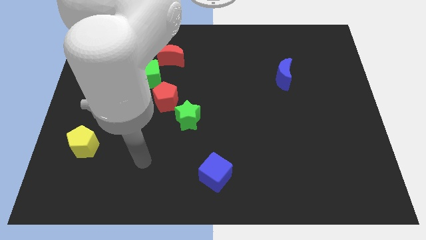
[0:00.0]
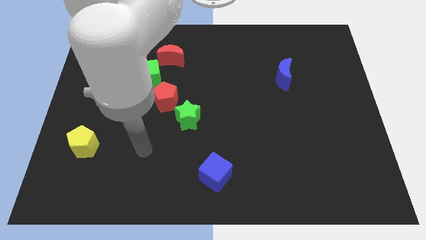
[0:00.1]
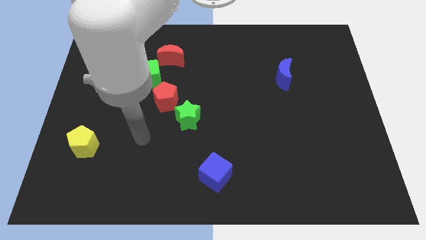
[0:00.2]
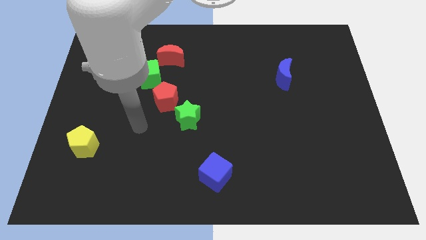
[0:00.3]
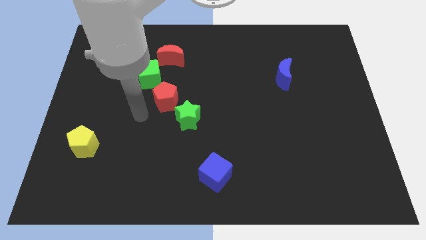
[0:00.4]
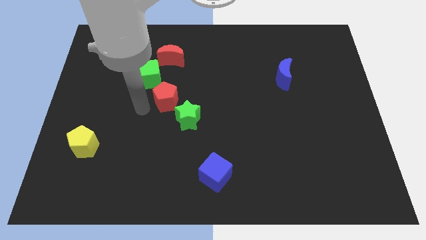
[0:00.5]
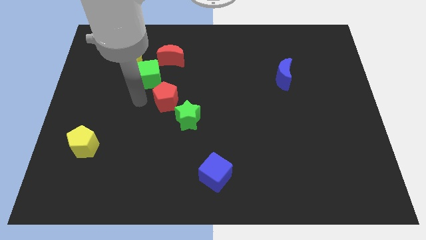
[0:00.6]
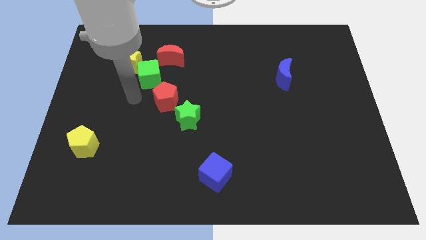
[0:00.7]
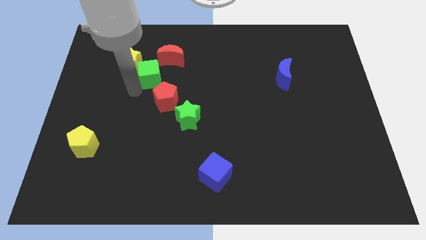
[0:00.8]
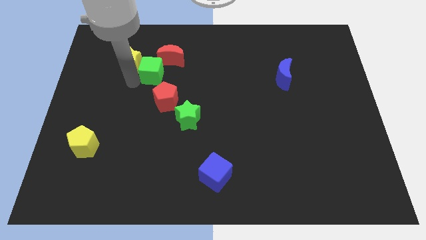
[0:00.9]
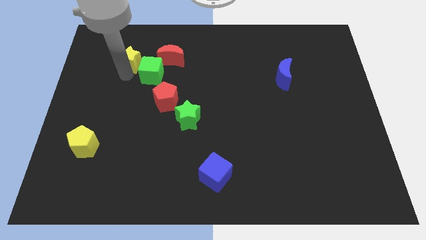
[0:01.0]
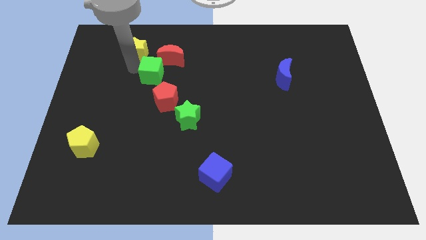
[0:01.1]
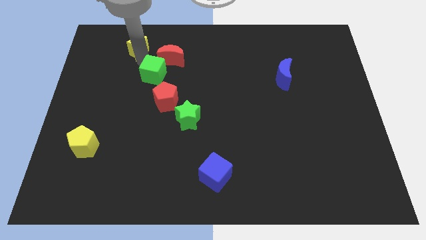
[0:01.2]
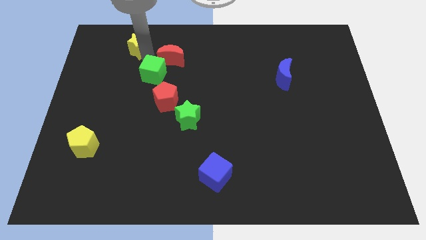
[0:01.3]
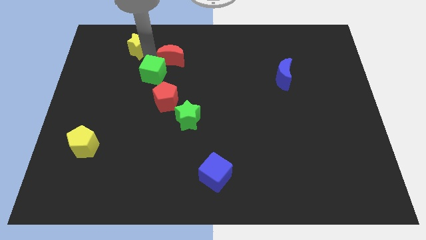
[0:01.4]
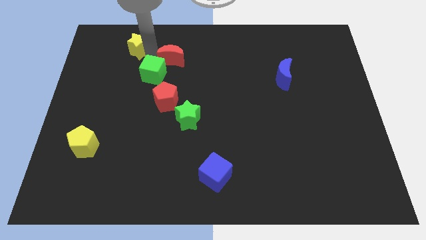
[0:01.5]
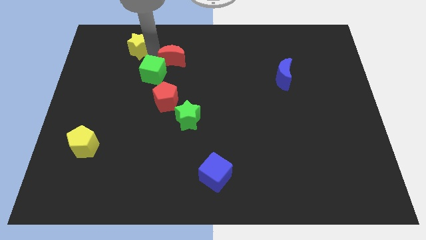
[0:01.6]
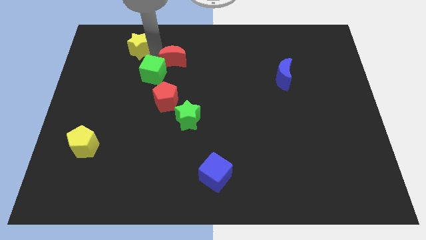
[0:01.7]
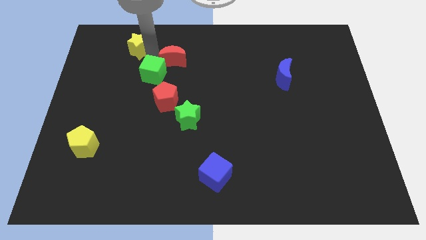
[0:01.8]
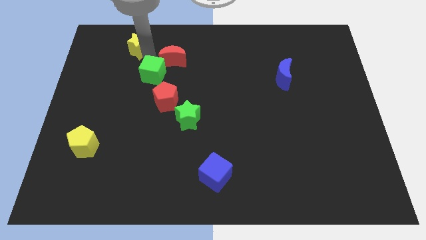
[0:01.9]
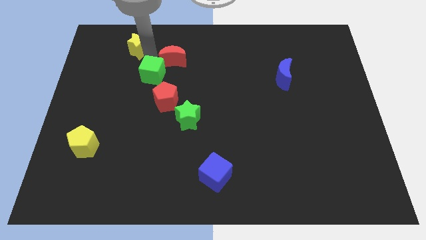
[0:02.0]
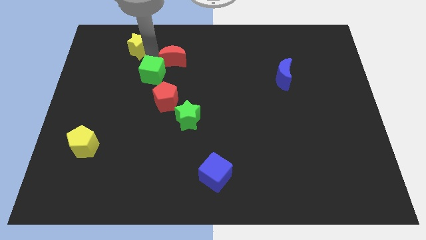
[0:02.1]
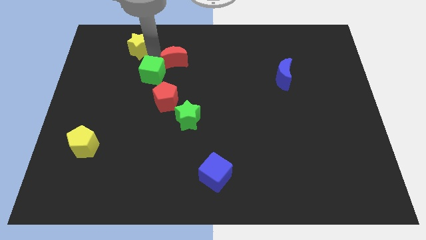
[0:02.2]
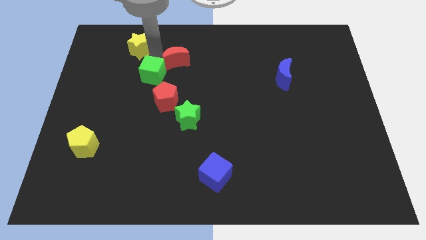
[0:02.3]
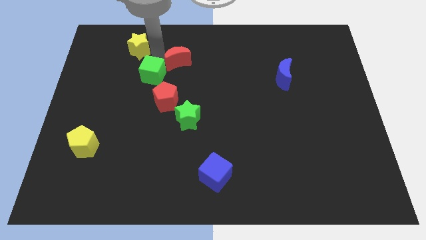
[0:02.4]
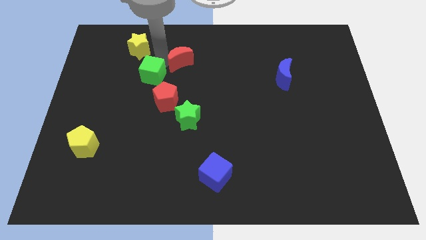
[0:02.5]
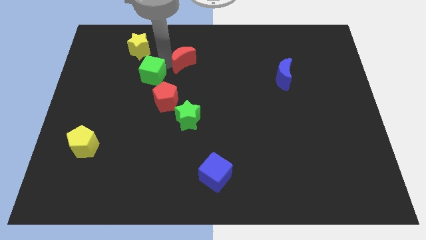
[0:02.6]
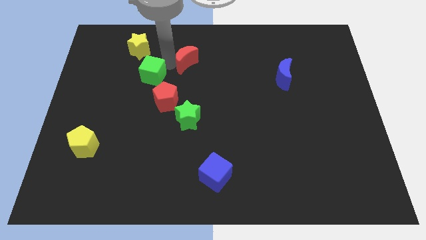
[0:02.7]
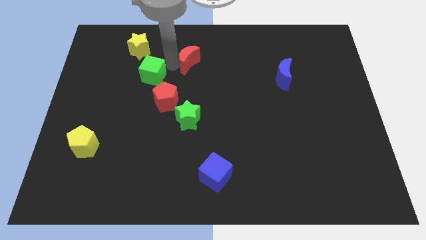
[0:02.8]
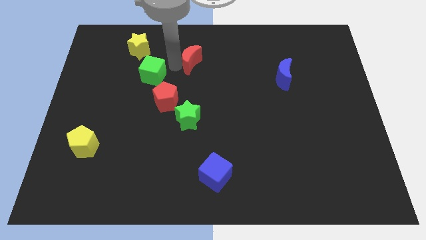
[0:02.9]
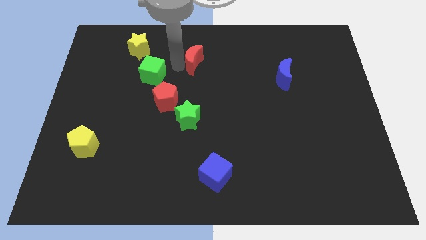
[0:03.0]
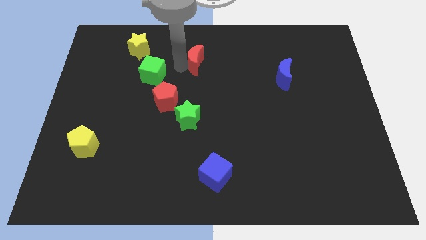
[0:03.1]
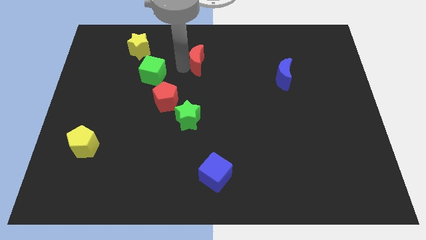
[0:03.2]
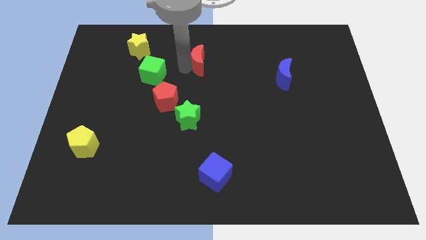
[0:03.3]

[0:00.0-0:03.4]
push the red moon a little bit to the right

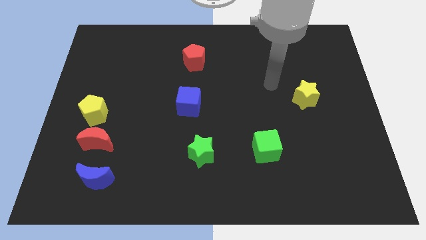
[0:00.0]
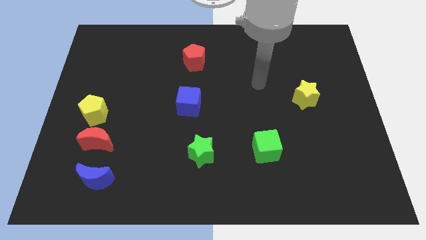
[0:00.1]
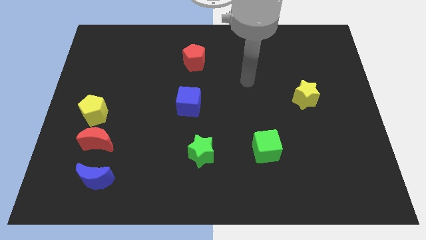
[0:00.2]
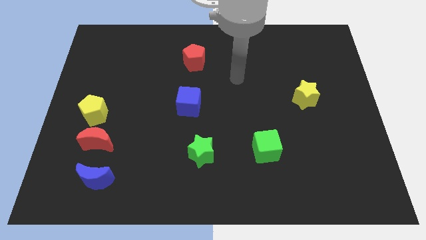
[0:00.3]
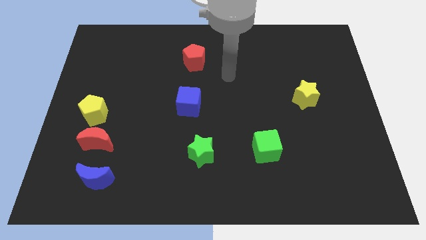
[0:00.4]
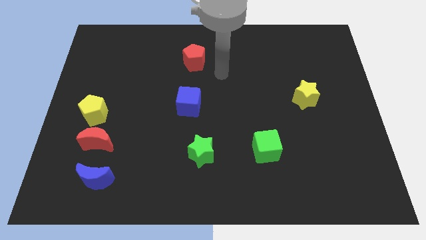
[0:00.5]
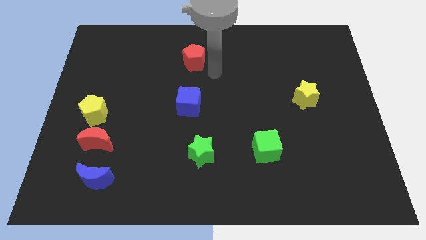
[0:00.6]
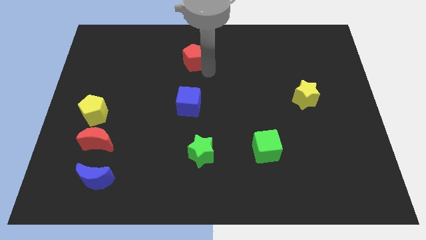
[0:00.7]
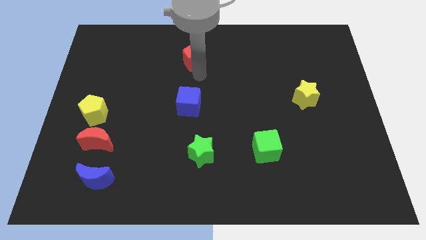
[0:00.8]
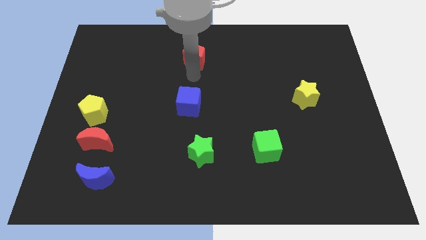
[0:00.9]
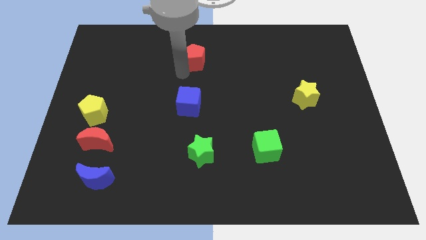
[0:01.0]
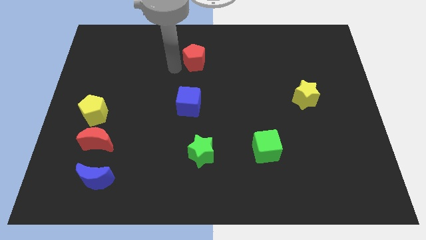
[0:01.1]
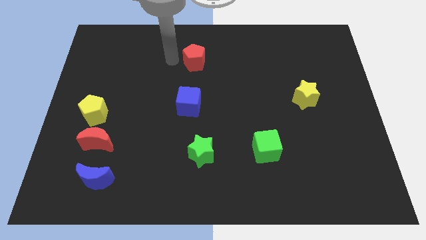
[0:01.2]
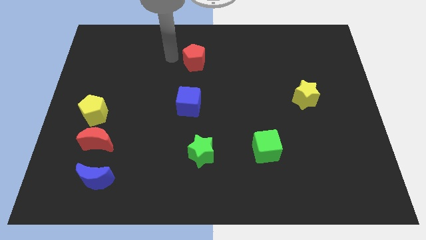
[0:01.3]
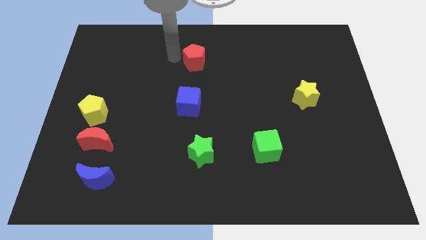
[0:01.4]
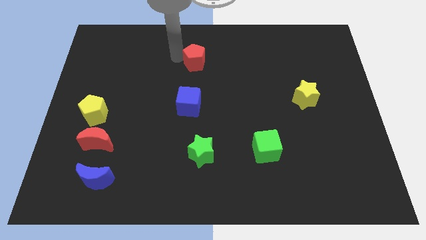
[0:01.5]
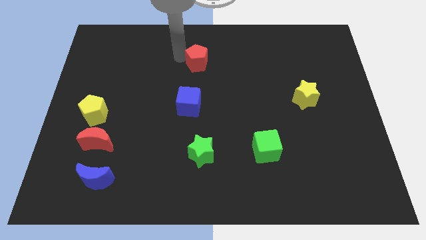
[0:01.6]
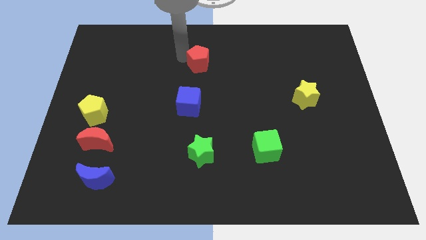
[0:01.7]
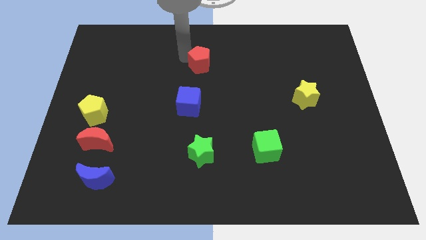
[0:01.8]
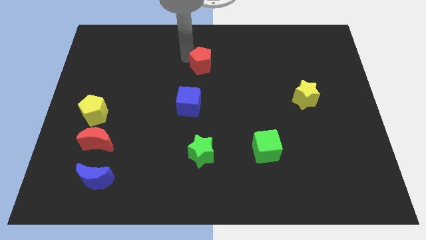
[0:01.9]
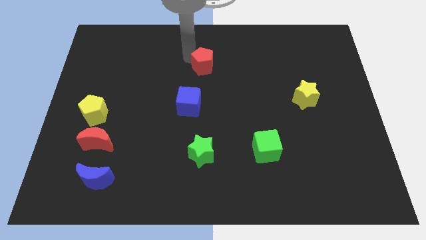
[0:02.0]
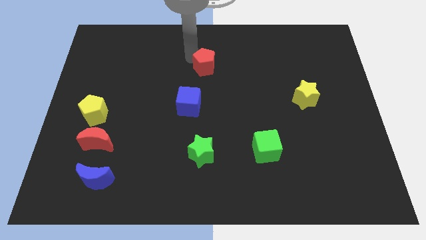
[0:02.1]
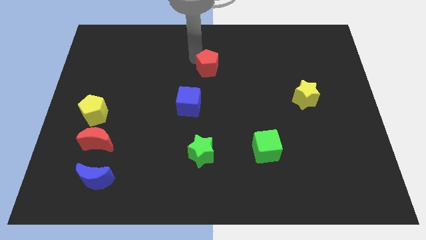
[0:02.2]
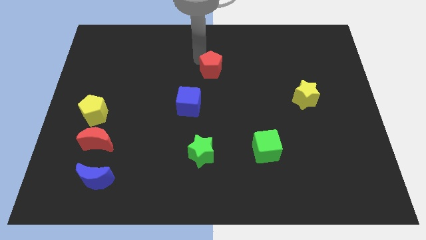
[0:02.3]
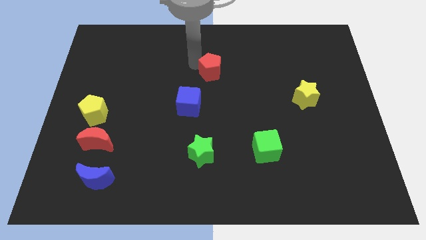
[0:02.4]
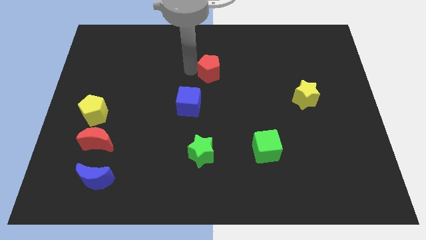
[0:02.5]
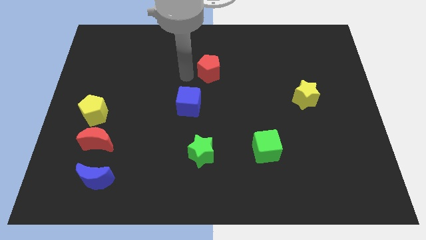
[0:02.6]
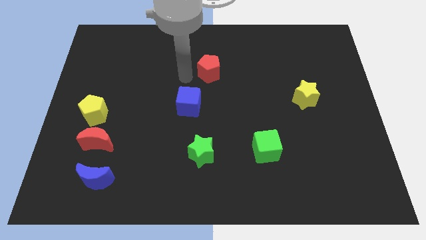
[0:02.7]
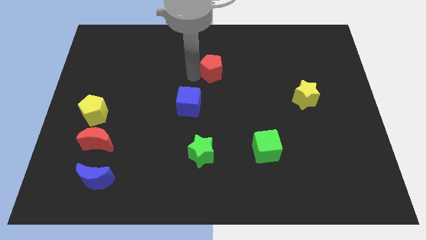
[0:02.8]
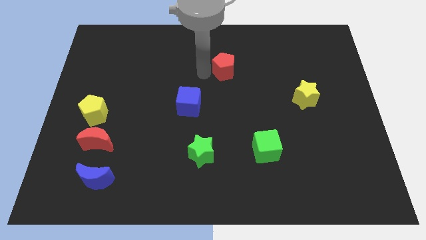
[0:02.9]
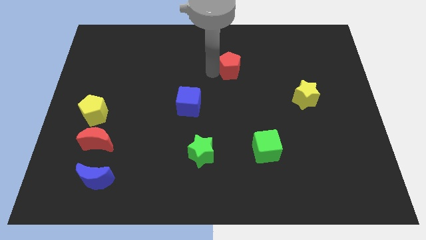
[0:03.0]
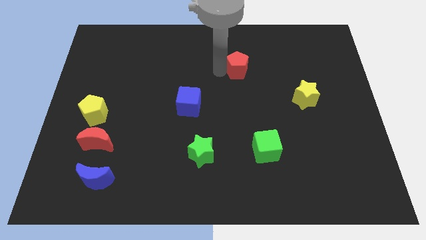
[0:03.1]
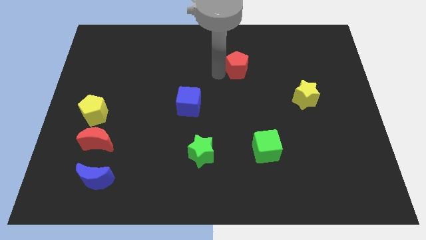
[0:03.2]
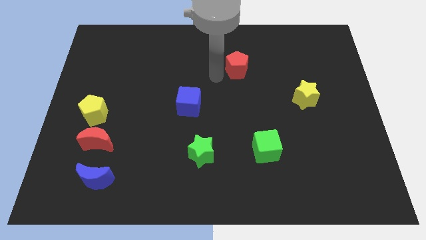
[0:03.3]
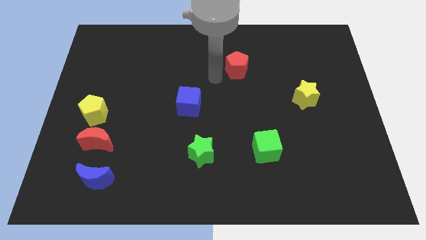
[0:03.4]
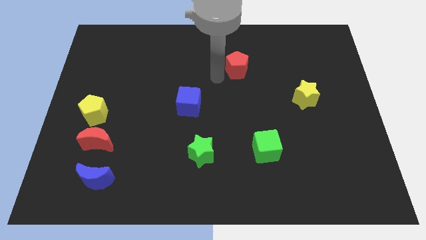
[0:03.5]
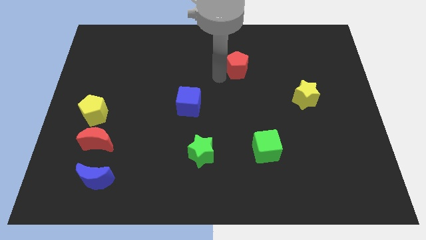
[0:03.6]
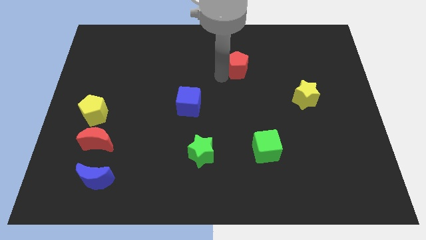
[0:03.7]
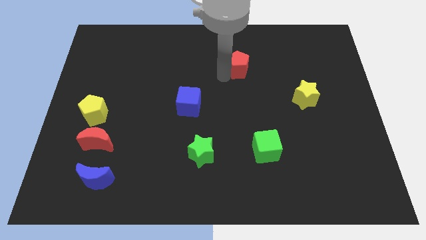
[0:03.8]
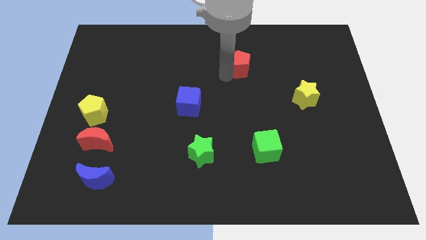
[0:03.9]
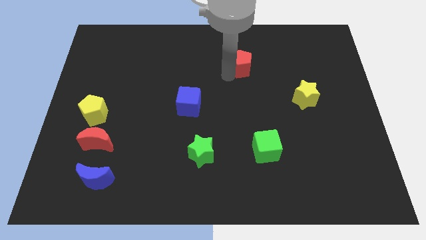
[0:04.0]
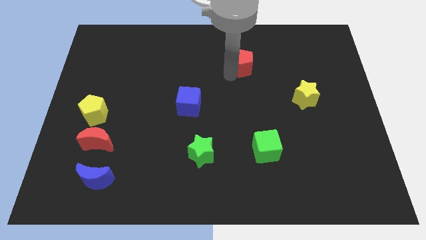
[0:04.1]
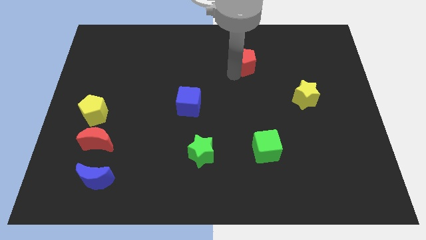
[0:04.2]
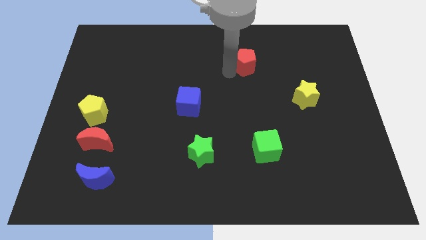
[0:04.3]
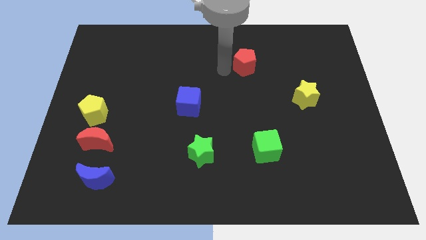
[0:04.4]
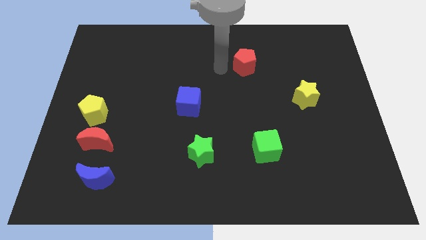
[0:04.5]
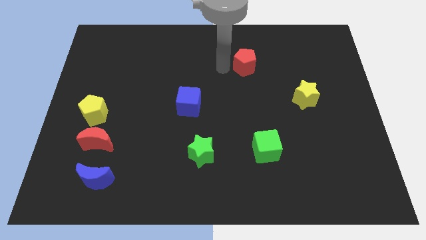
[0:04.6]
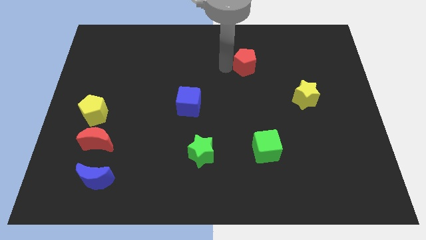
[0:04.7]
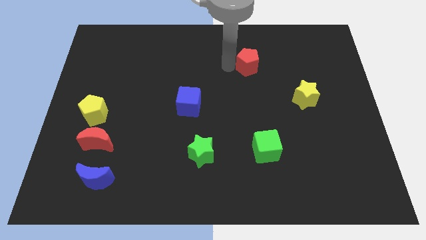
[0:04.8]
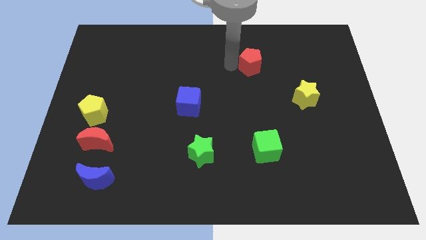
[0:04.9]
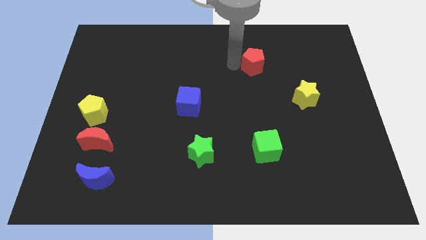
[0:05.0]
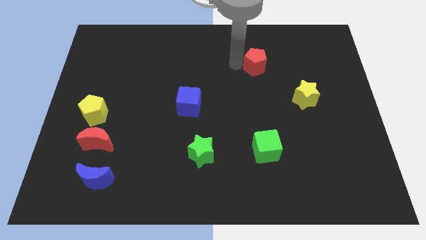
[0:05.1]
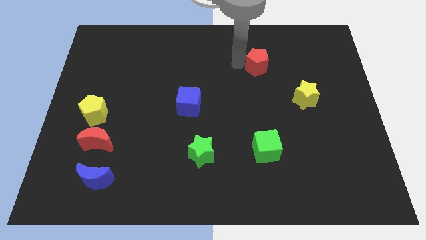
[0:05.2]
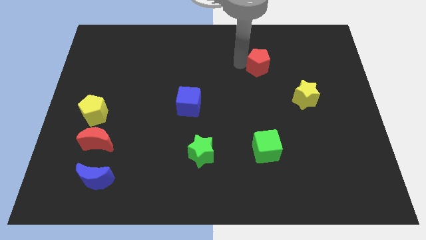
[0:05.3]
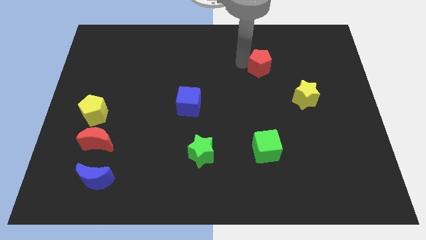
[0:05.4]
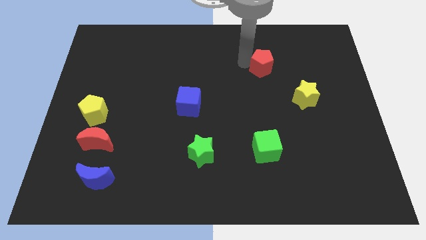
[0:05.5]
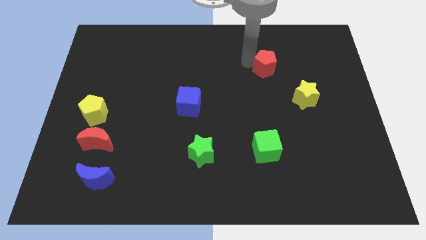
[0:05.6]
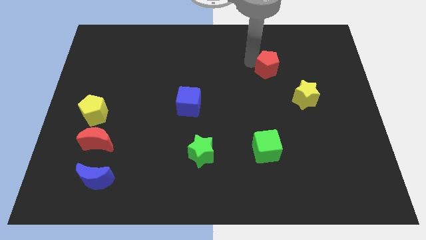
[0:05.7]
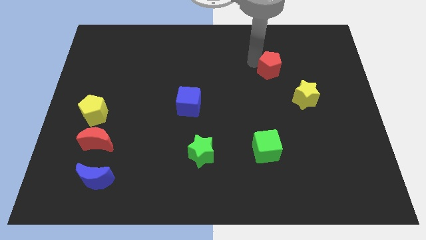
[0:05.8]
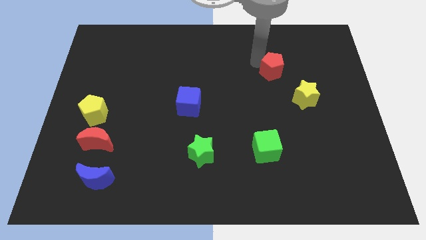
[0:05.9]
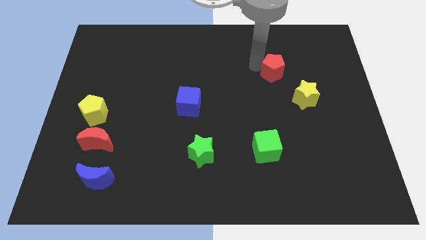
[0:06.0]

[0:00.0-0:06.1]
move the red pentagon to the right
